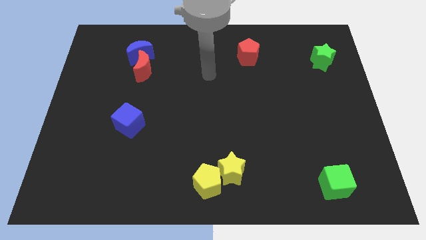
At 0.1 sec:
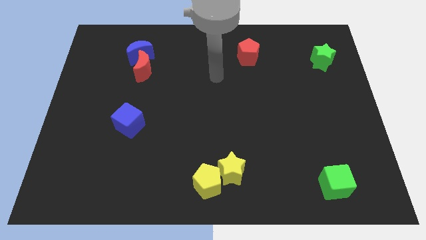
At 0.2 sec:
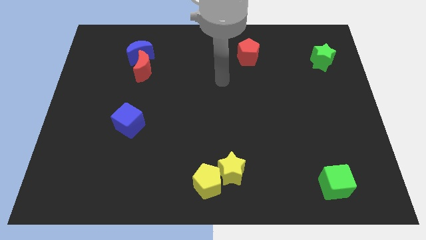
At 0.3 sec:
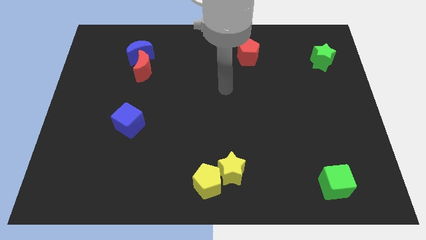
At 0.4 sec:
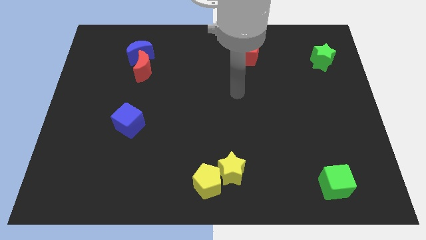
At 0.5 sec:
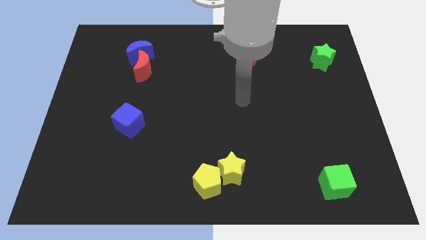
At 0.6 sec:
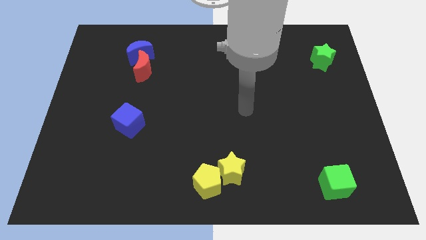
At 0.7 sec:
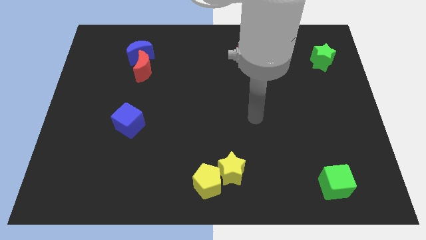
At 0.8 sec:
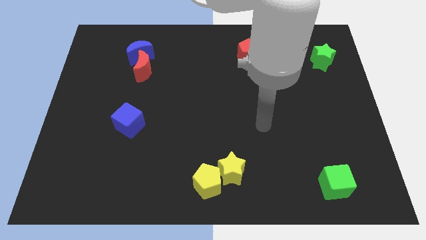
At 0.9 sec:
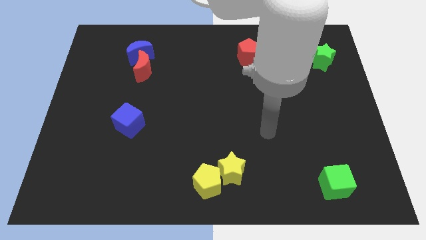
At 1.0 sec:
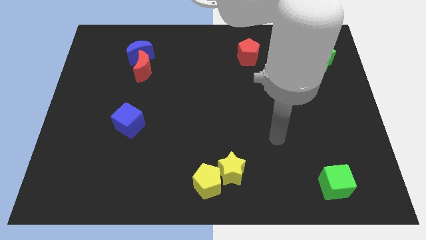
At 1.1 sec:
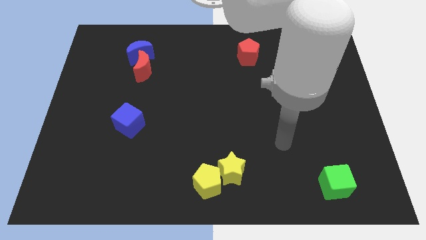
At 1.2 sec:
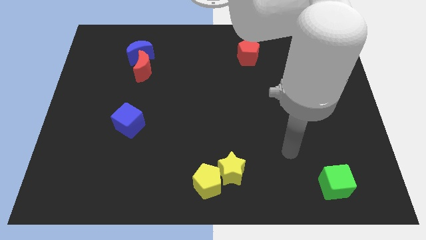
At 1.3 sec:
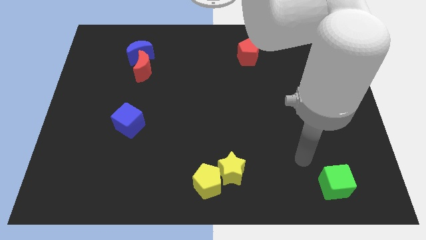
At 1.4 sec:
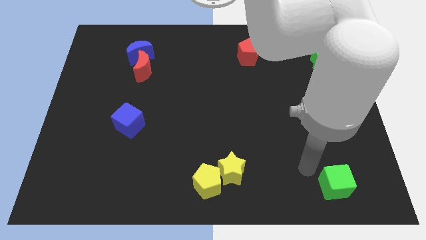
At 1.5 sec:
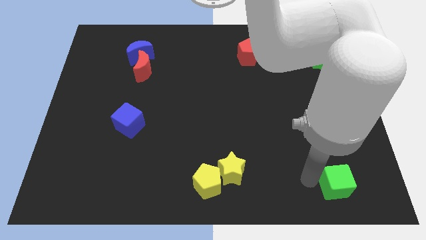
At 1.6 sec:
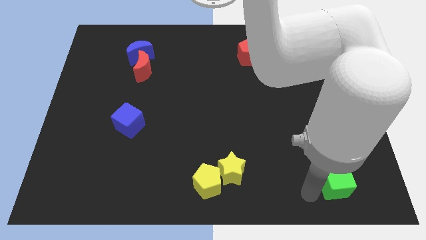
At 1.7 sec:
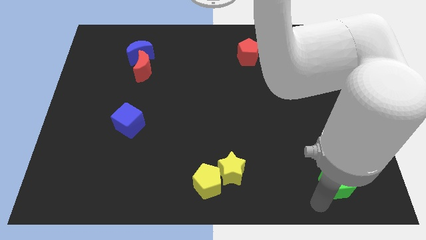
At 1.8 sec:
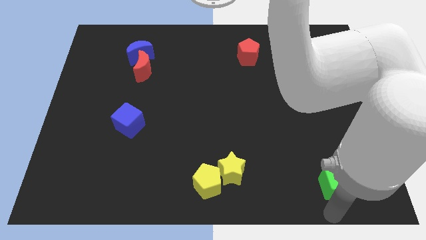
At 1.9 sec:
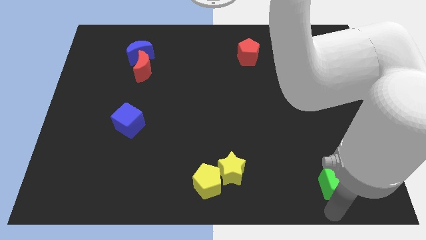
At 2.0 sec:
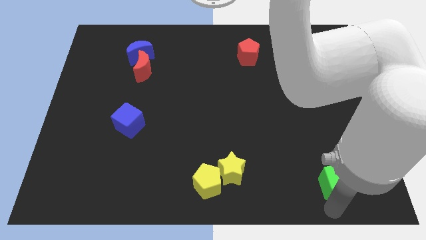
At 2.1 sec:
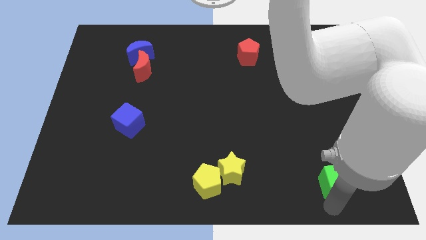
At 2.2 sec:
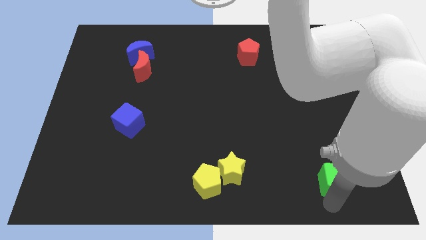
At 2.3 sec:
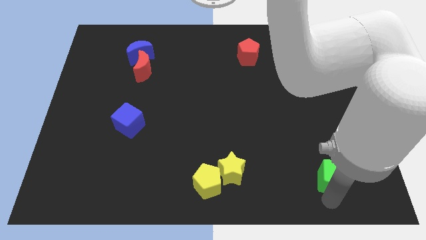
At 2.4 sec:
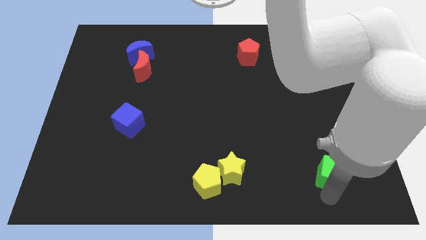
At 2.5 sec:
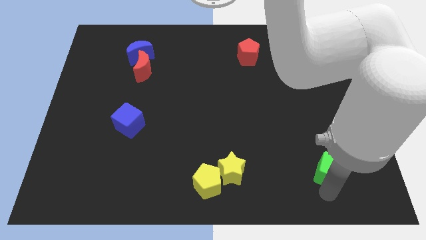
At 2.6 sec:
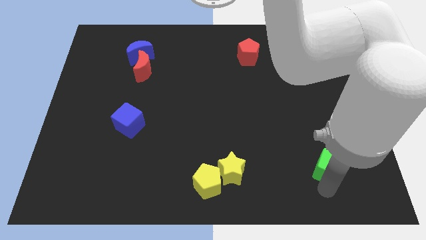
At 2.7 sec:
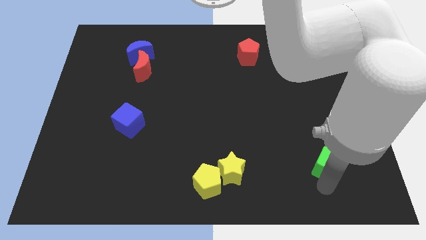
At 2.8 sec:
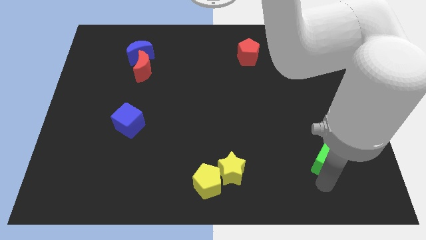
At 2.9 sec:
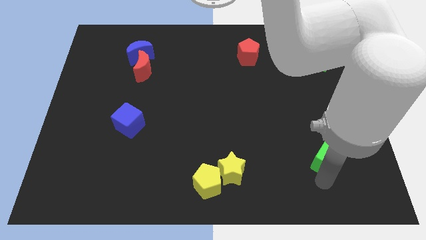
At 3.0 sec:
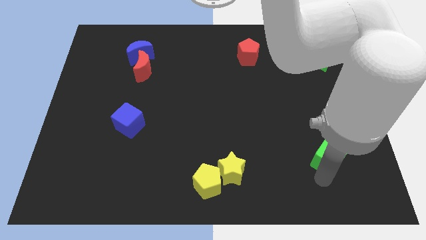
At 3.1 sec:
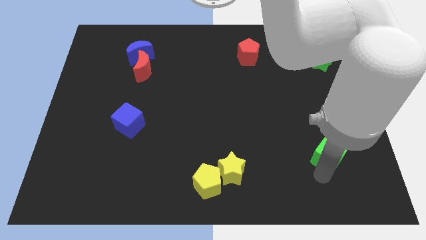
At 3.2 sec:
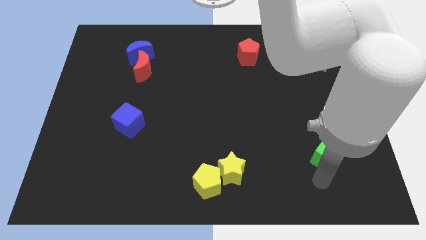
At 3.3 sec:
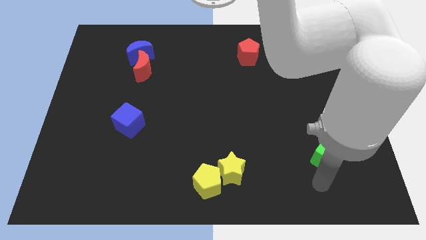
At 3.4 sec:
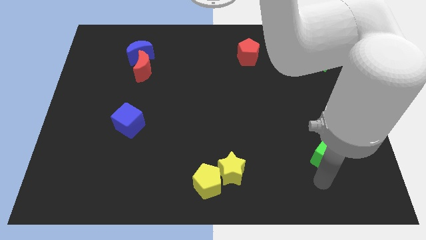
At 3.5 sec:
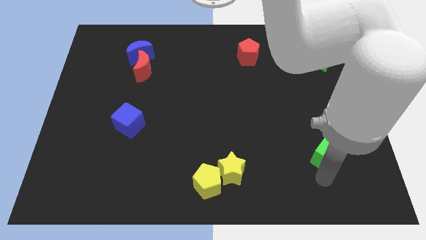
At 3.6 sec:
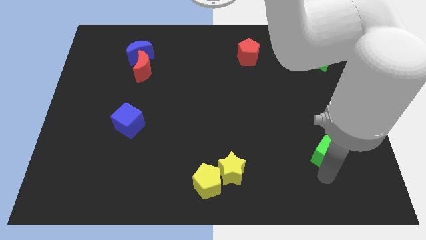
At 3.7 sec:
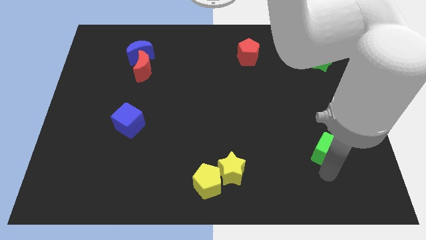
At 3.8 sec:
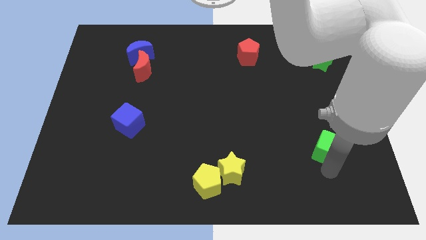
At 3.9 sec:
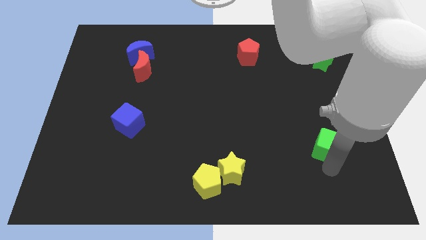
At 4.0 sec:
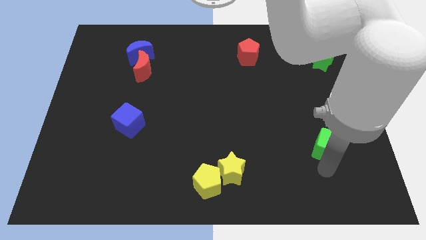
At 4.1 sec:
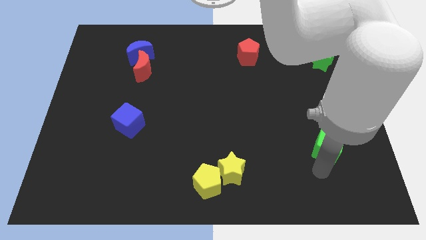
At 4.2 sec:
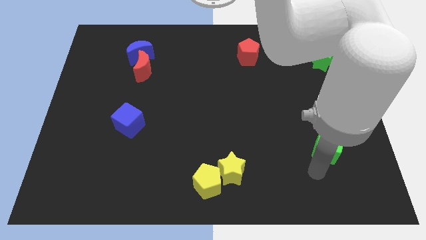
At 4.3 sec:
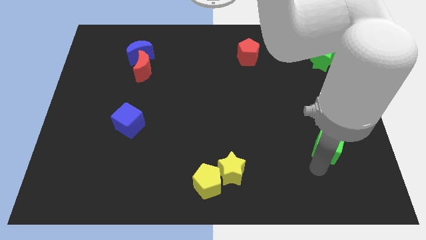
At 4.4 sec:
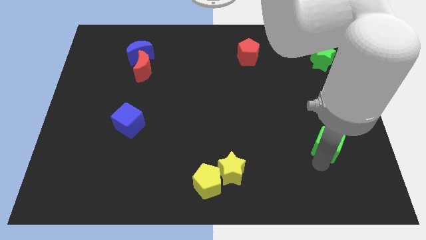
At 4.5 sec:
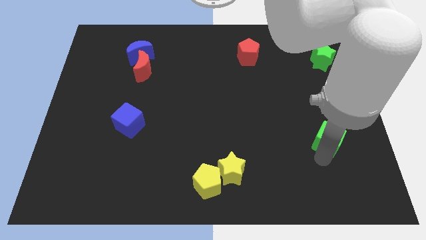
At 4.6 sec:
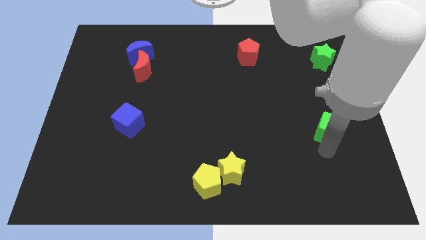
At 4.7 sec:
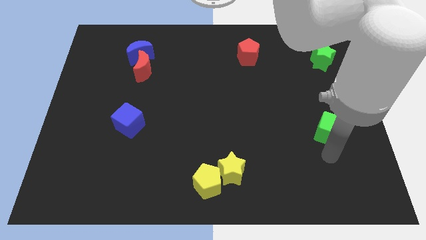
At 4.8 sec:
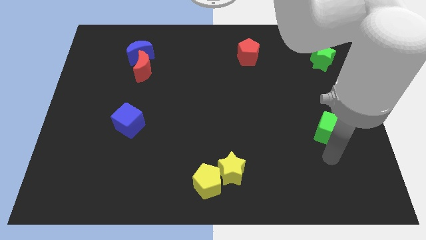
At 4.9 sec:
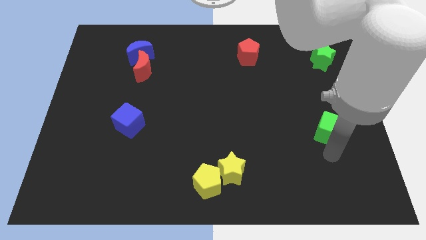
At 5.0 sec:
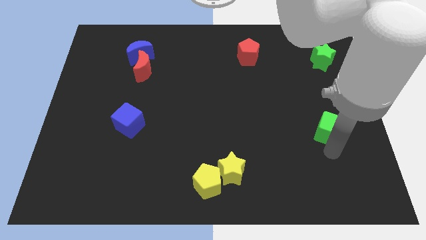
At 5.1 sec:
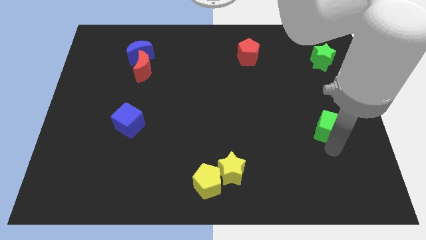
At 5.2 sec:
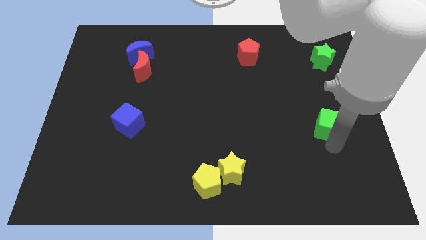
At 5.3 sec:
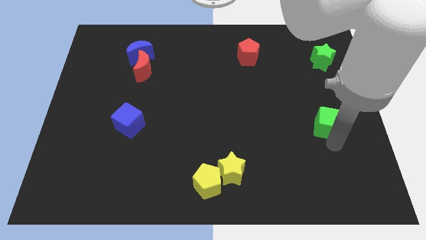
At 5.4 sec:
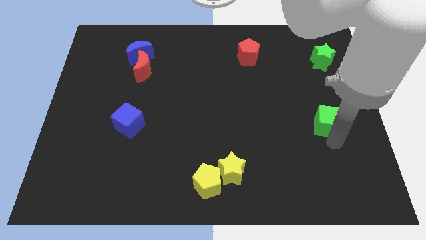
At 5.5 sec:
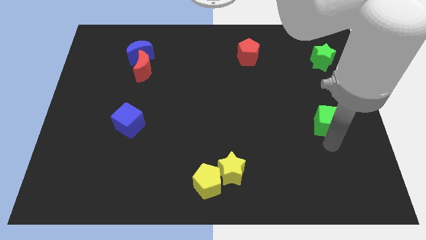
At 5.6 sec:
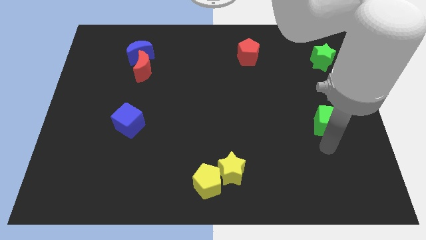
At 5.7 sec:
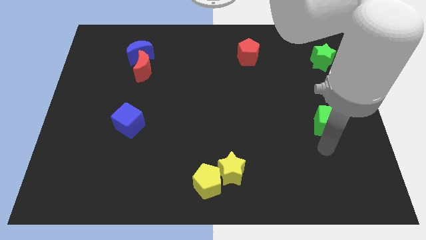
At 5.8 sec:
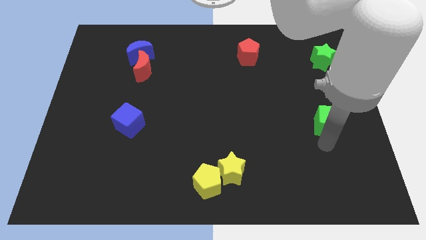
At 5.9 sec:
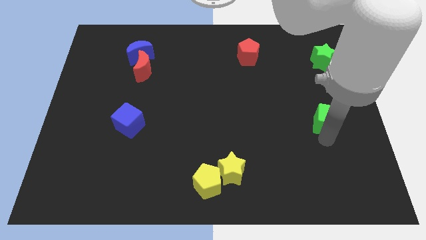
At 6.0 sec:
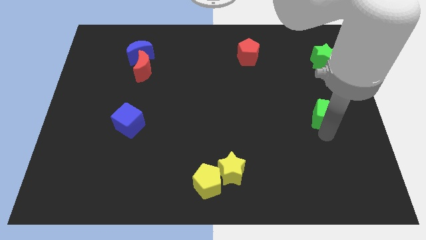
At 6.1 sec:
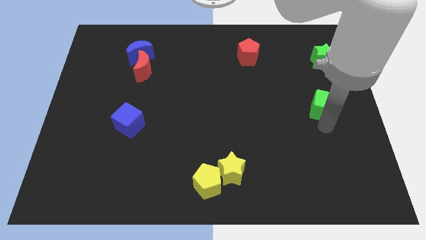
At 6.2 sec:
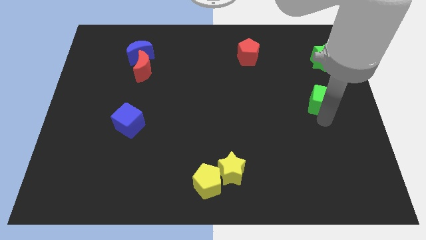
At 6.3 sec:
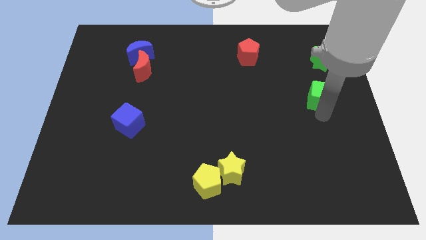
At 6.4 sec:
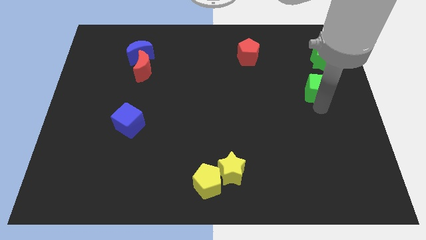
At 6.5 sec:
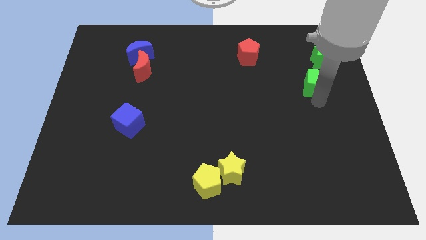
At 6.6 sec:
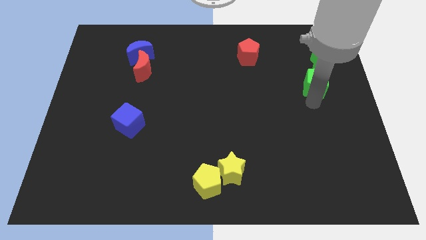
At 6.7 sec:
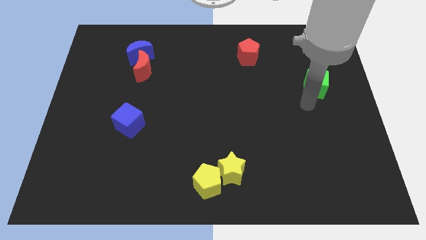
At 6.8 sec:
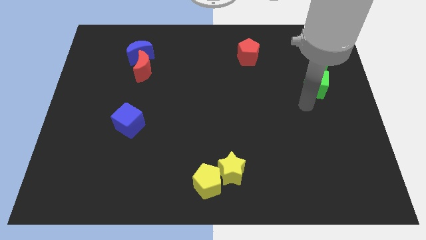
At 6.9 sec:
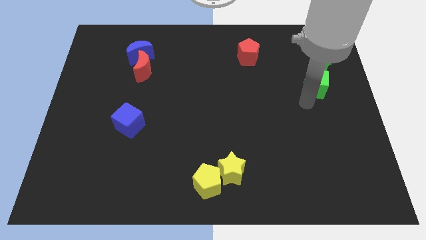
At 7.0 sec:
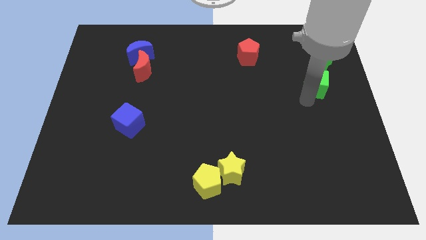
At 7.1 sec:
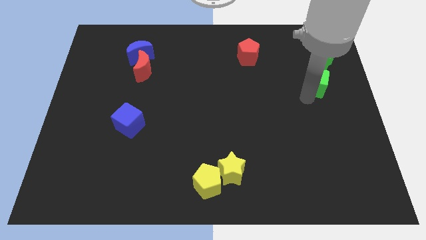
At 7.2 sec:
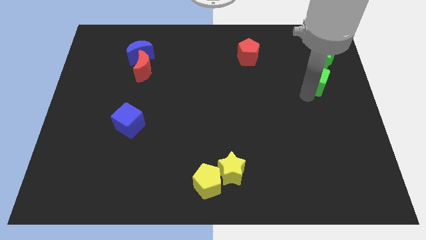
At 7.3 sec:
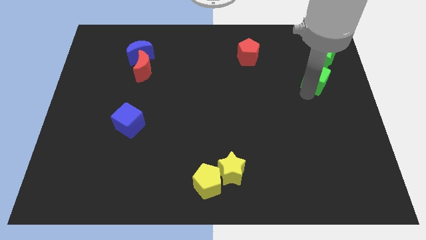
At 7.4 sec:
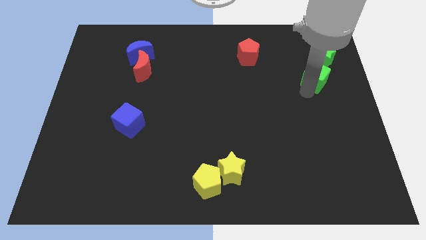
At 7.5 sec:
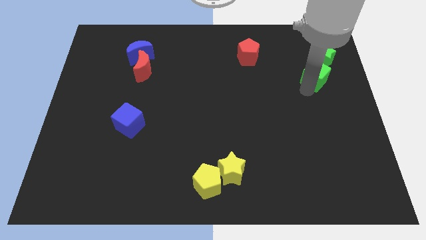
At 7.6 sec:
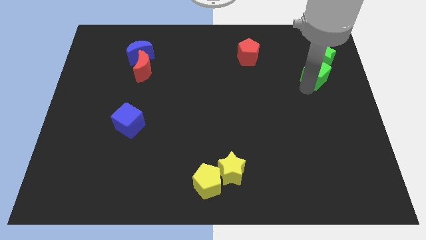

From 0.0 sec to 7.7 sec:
slide the green cube close to the green star
